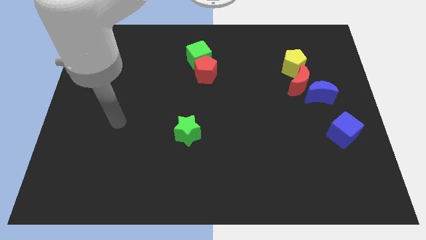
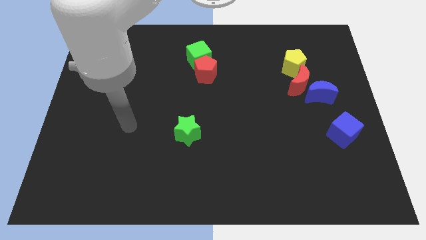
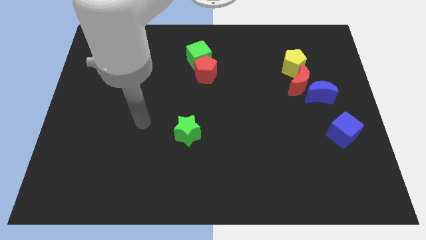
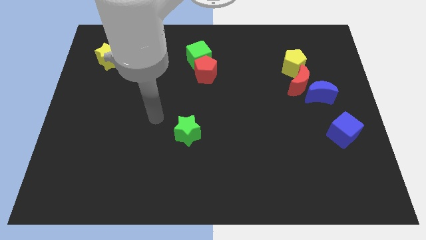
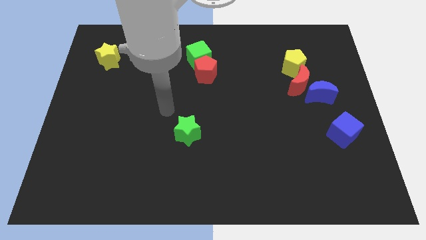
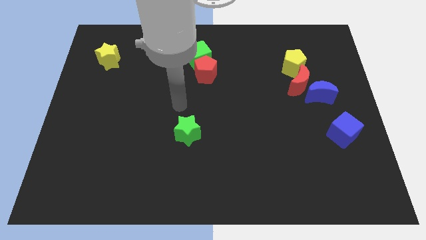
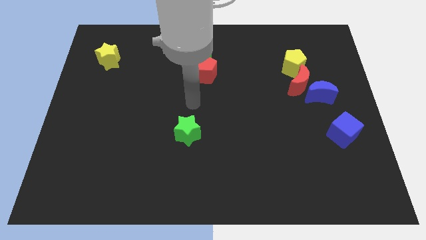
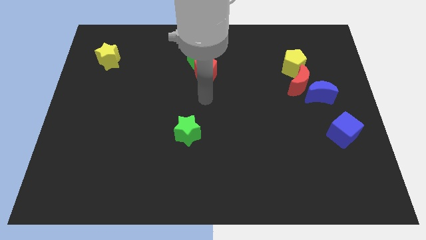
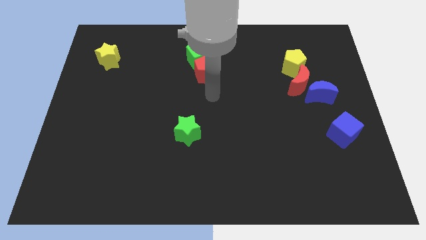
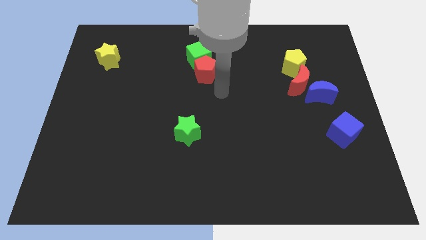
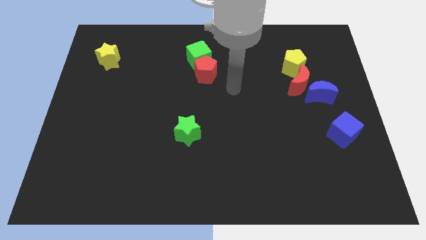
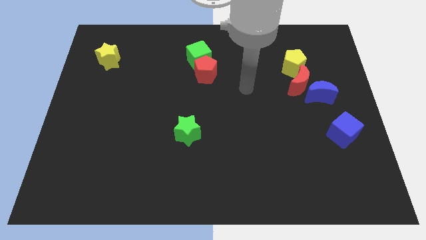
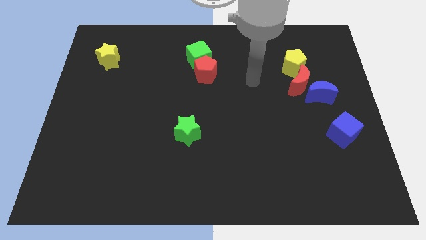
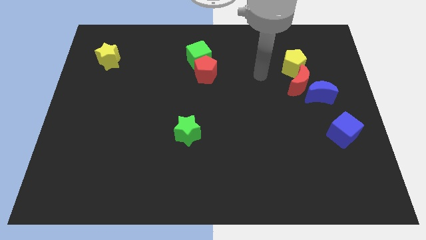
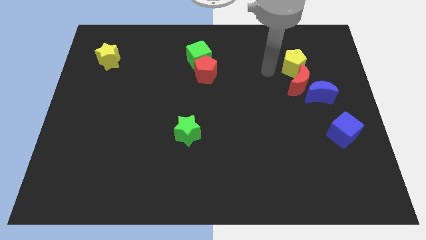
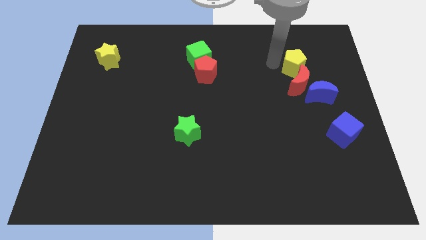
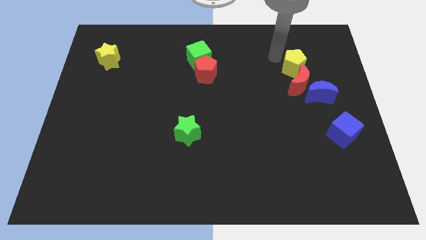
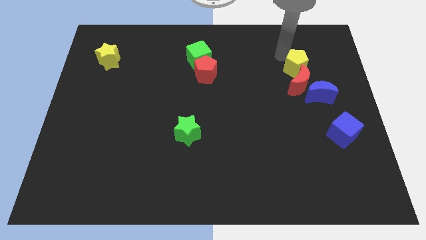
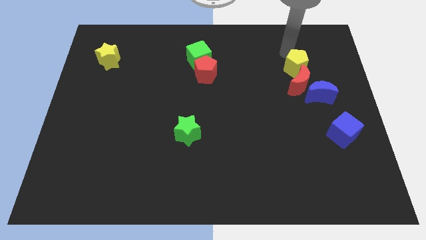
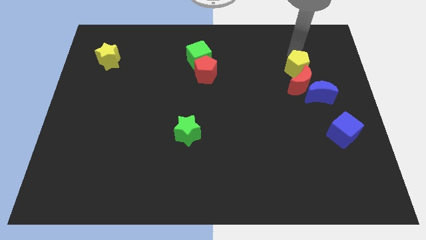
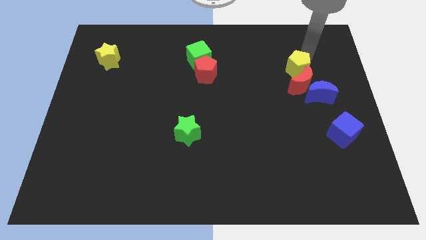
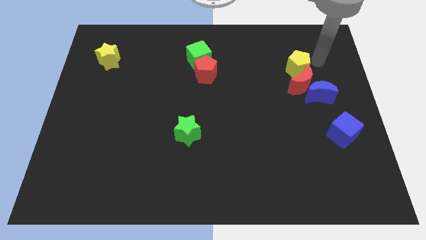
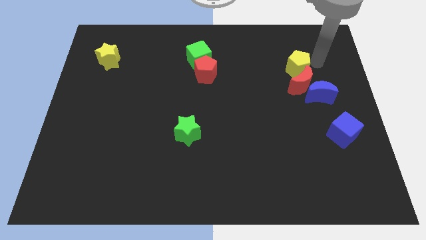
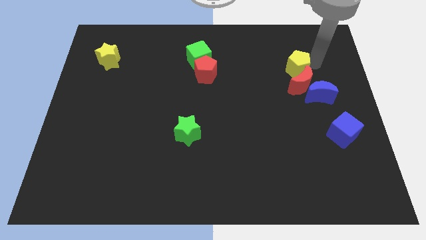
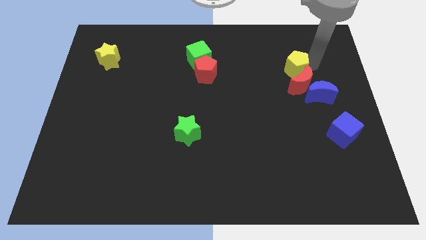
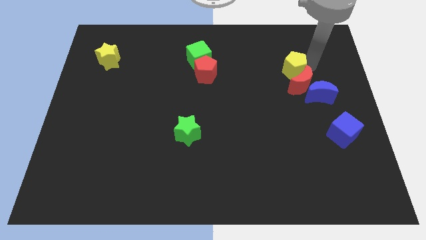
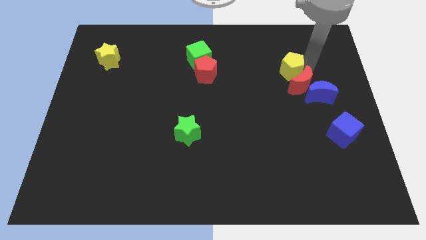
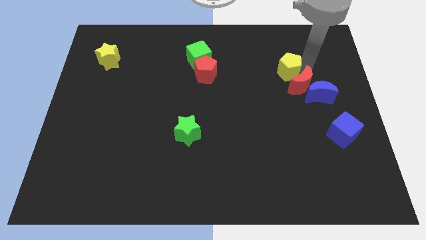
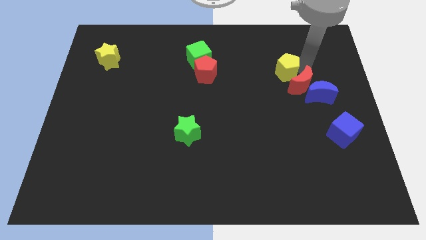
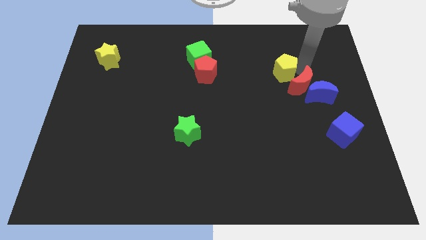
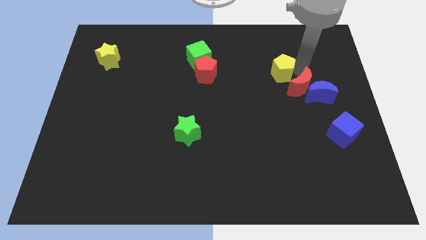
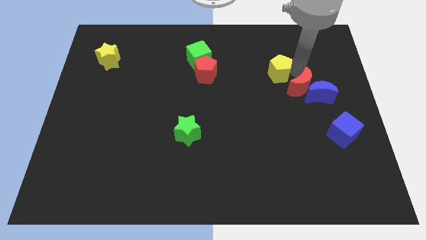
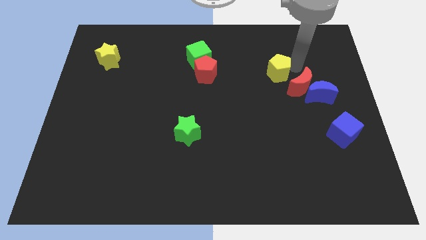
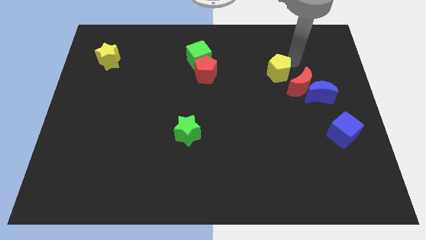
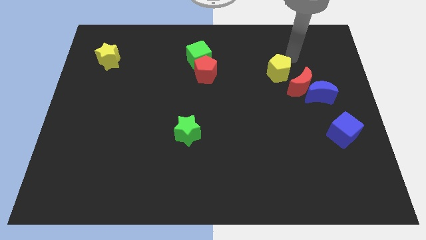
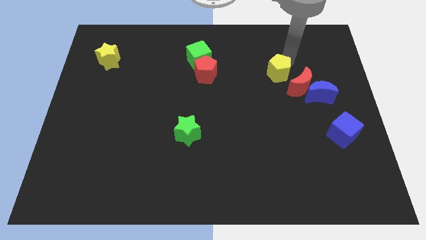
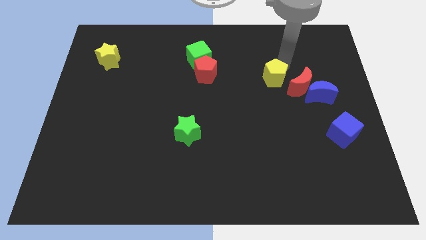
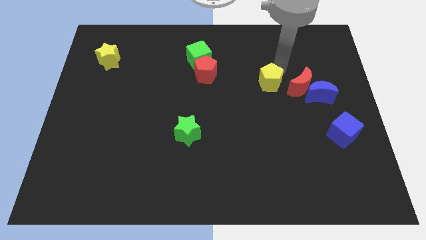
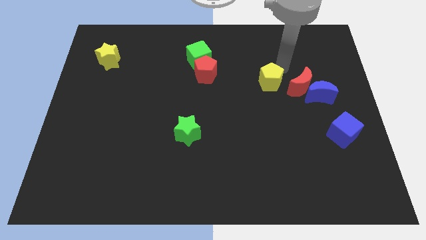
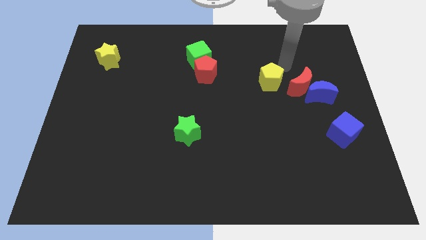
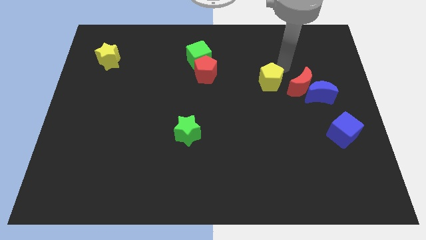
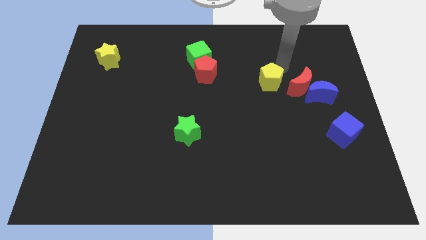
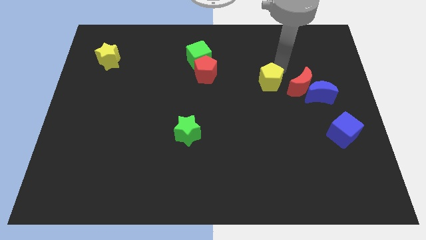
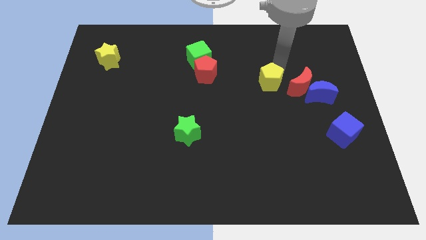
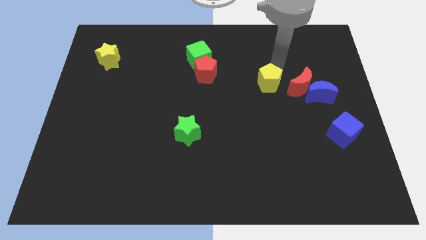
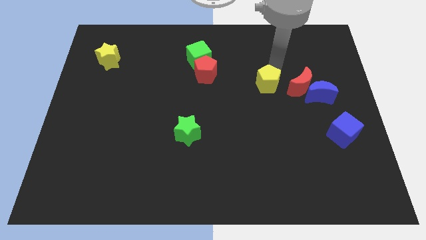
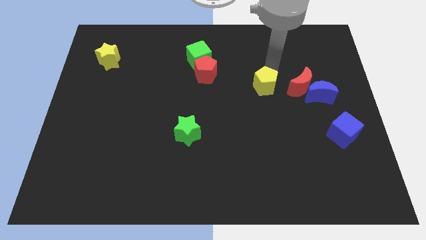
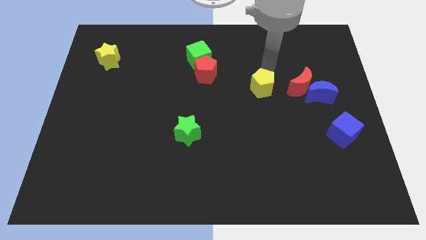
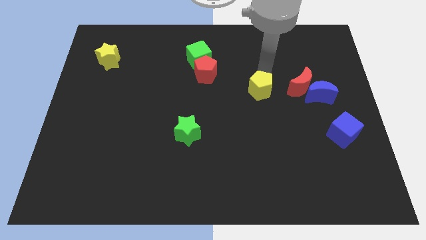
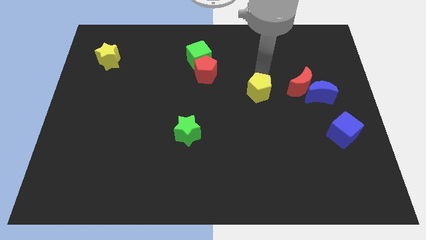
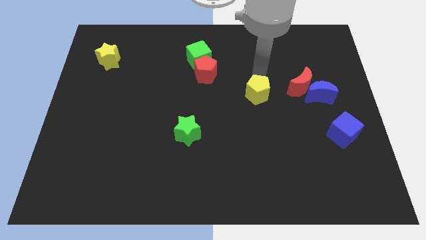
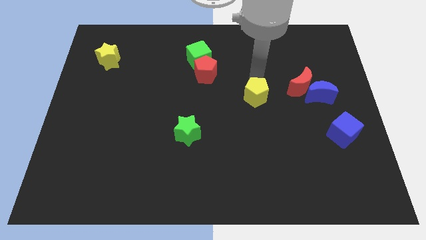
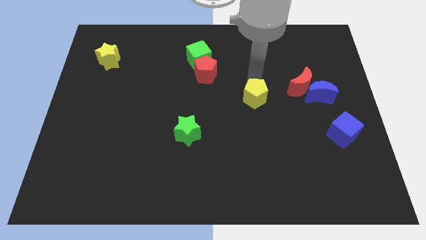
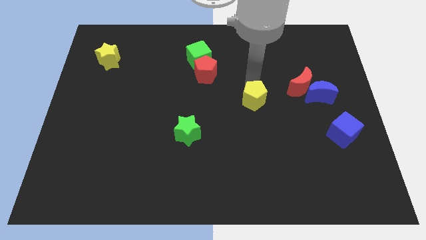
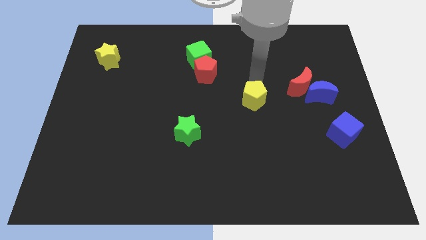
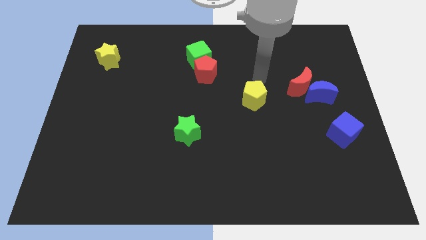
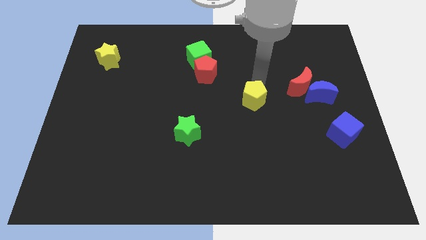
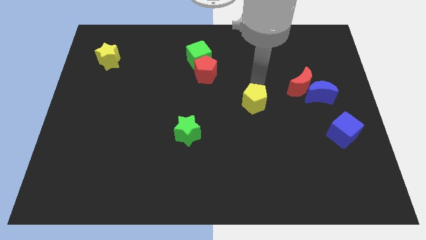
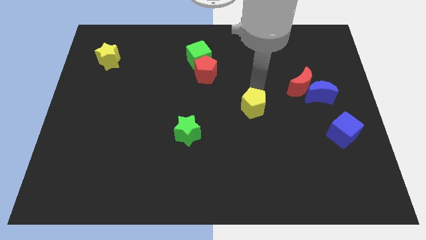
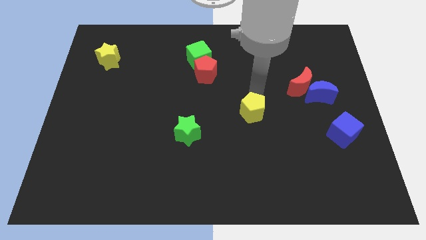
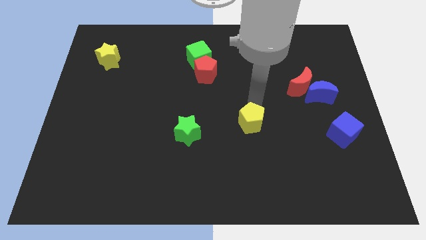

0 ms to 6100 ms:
put the yellow pentagon right of the green star

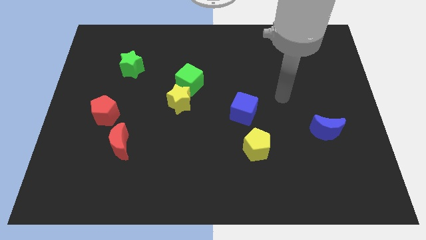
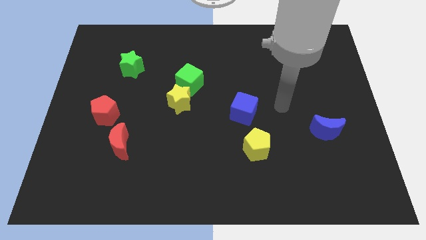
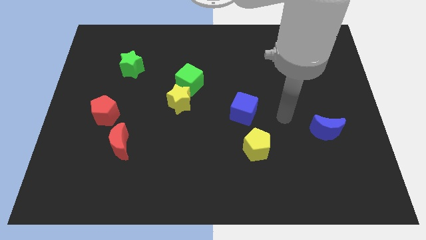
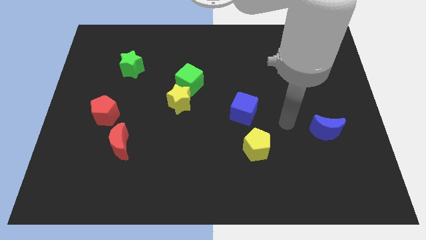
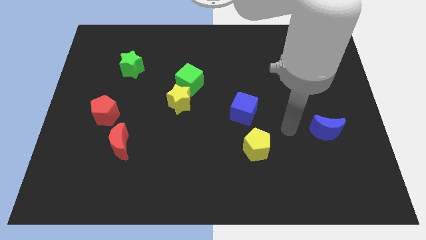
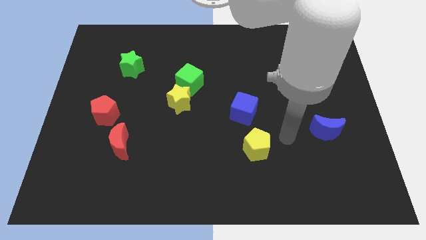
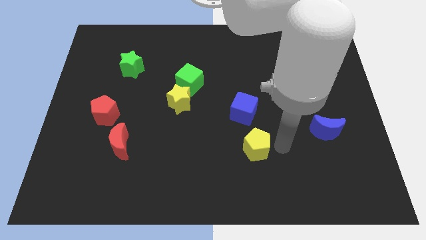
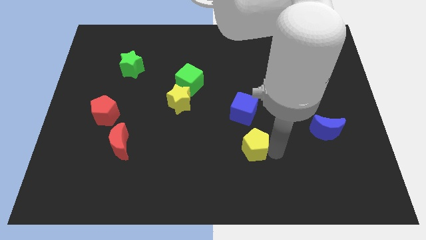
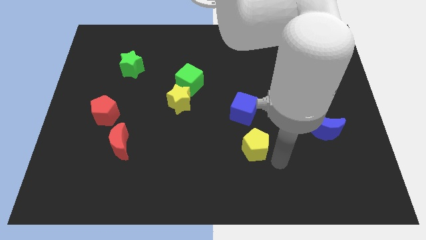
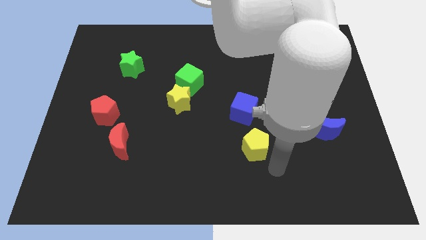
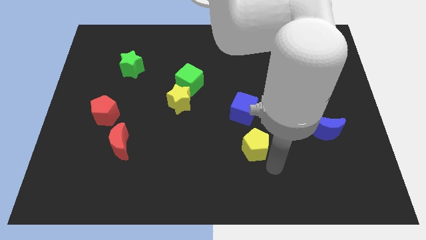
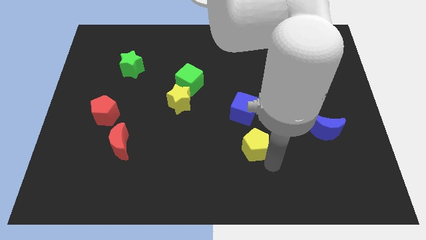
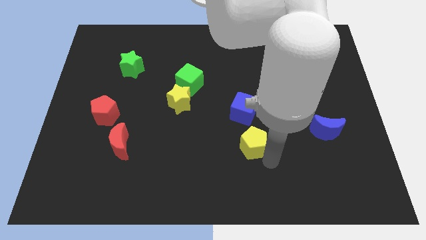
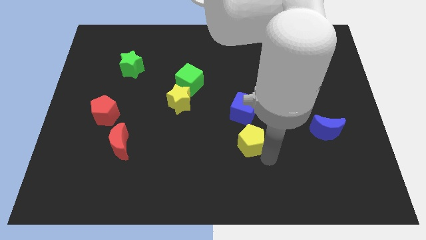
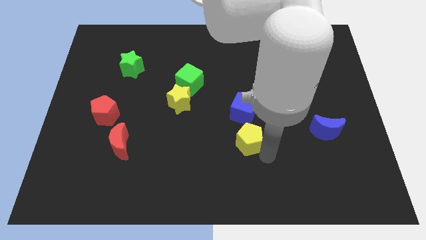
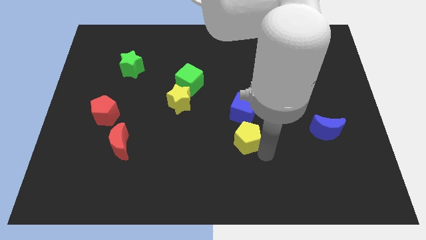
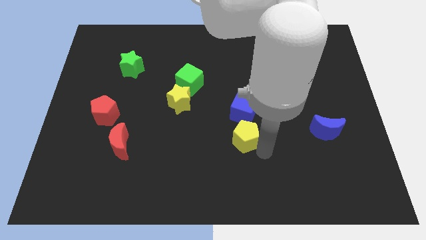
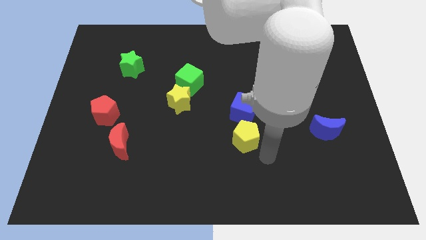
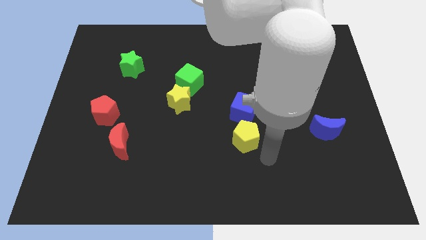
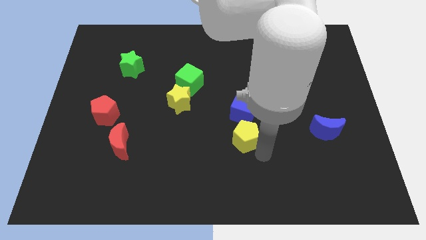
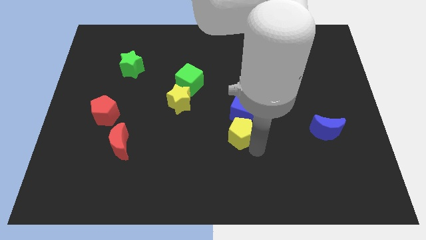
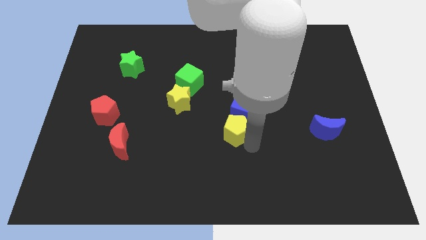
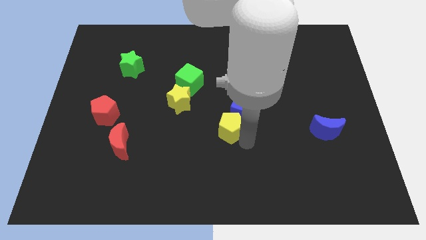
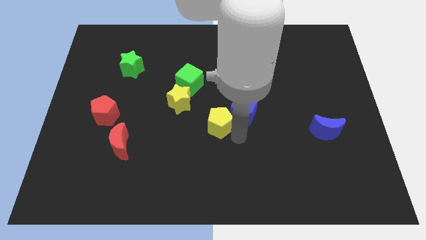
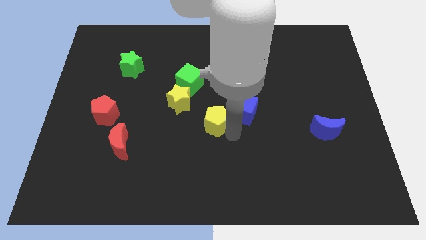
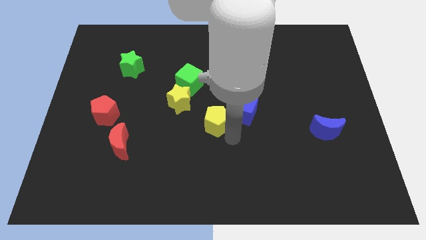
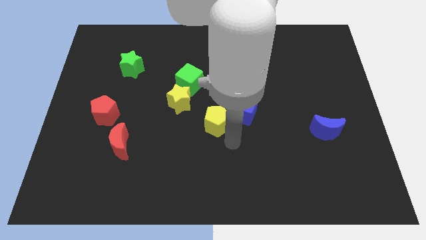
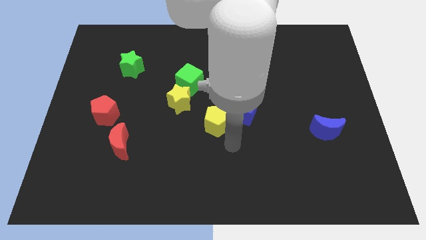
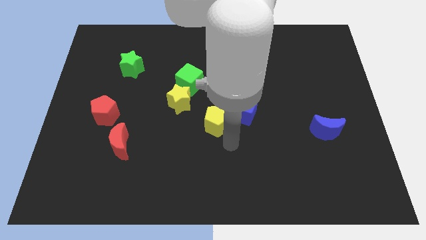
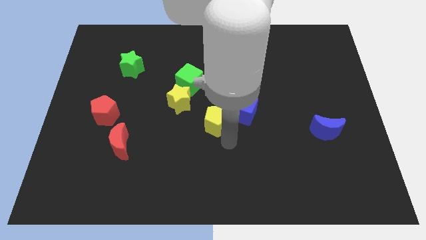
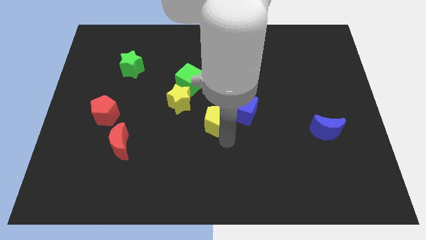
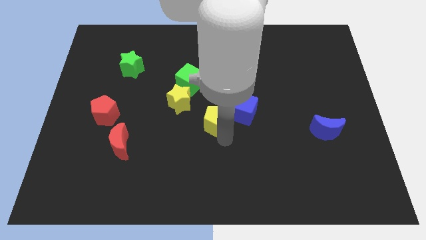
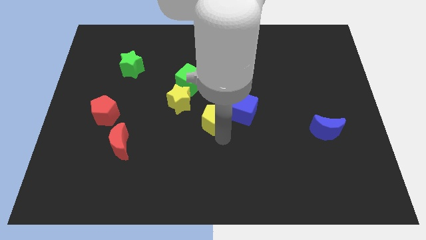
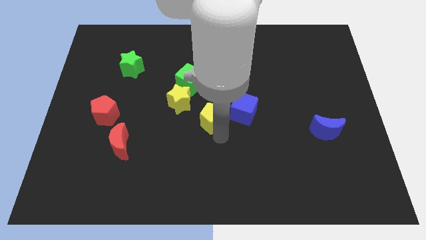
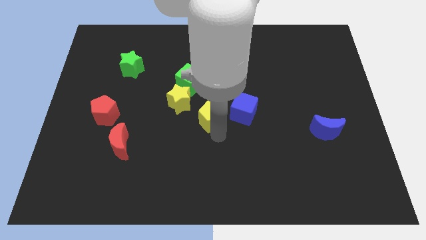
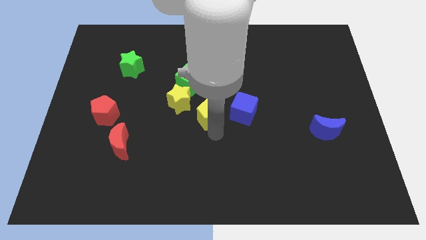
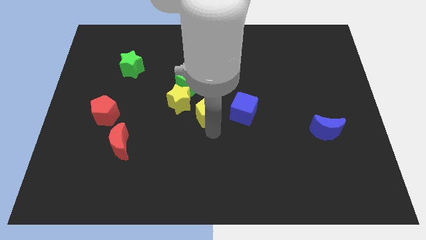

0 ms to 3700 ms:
push the yellow pentagon diagonally down and to the right of the green cube
